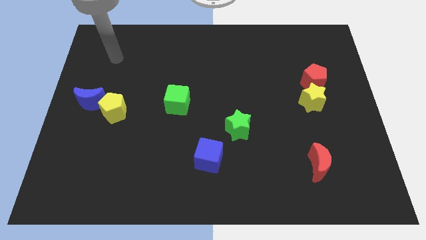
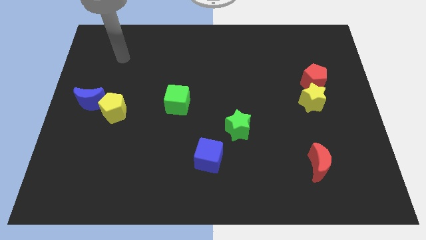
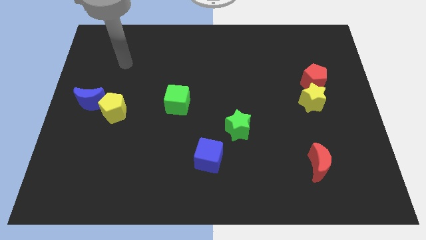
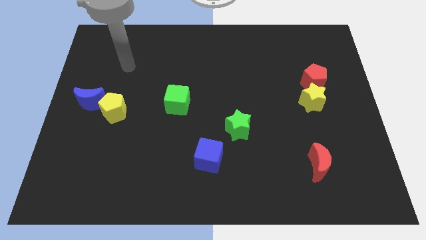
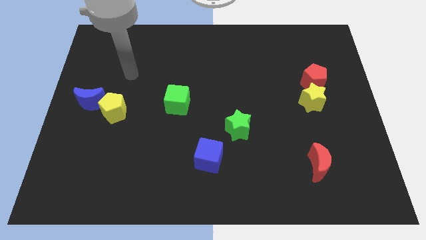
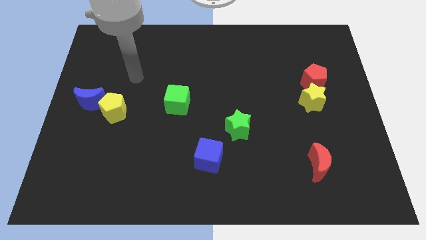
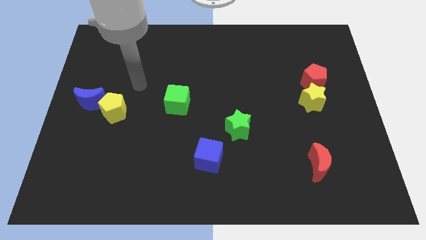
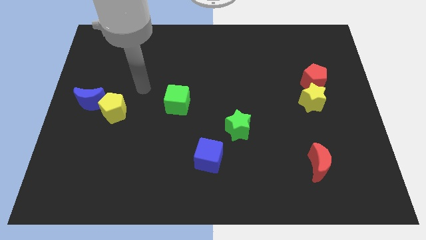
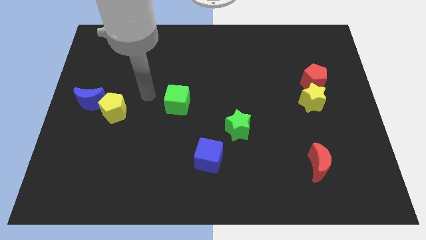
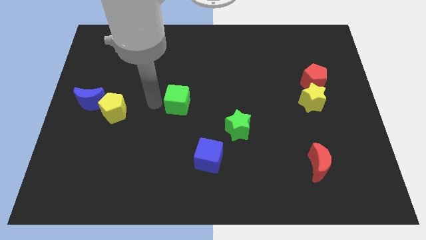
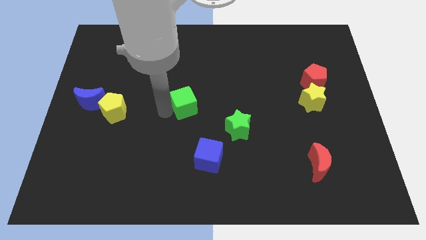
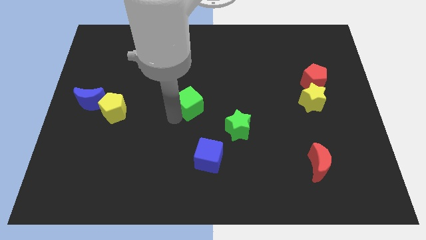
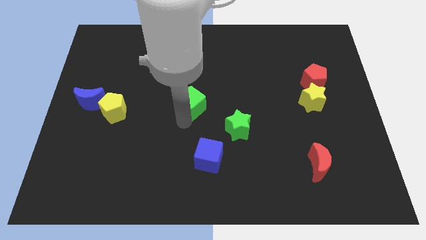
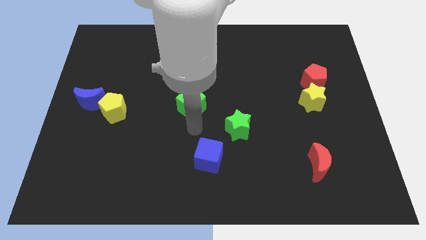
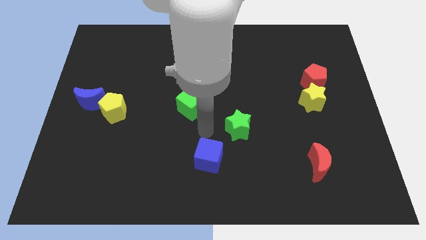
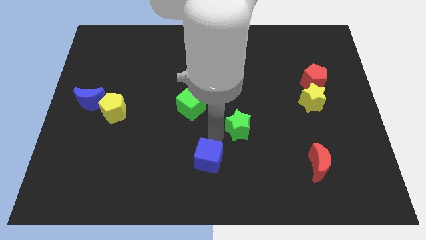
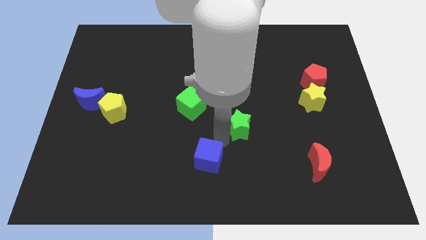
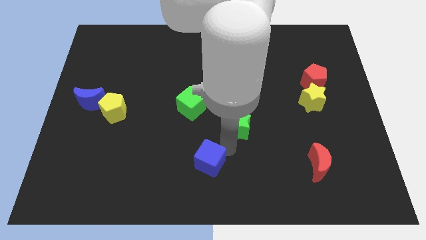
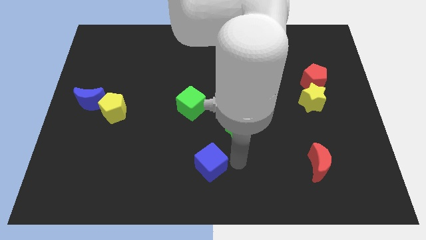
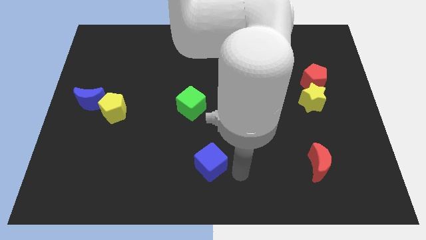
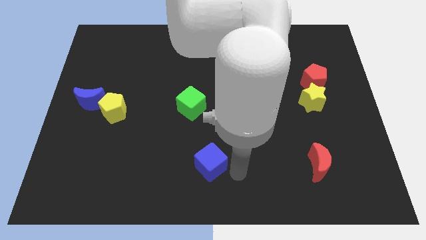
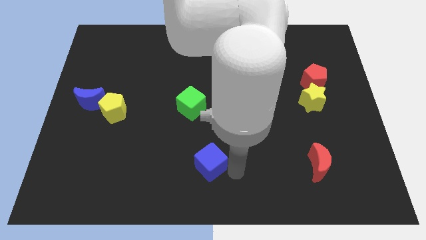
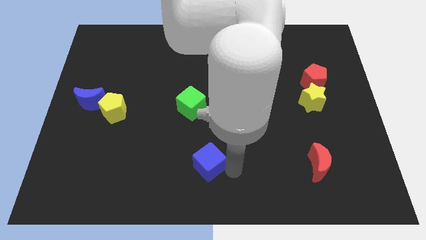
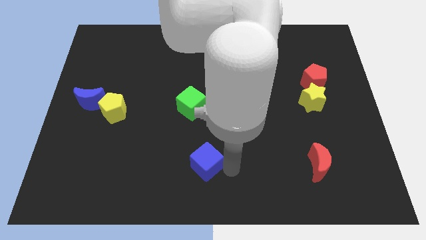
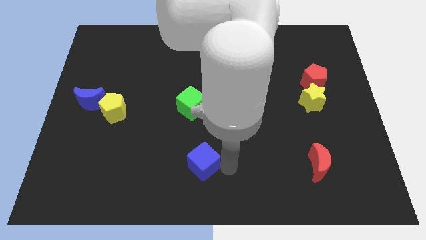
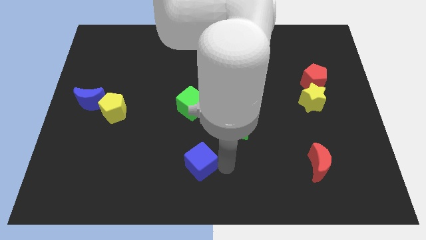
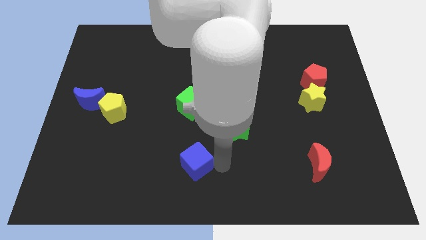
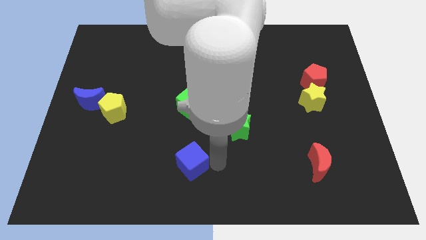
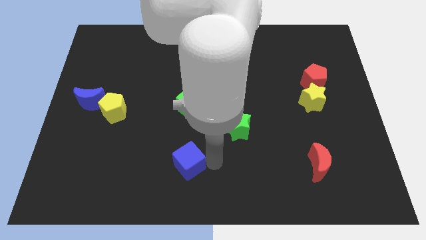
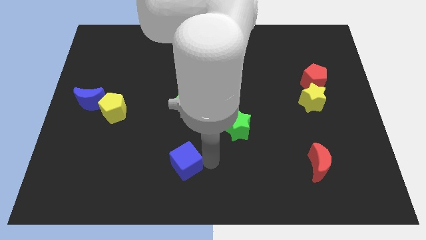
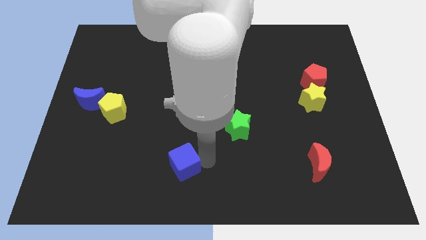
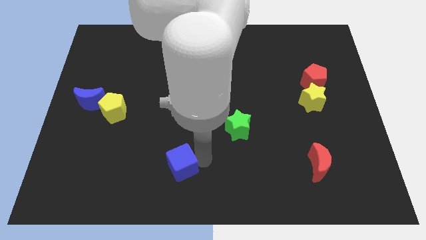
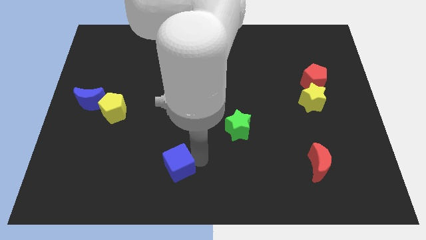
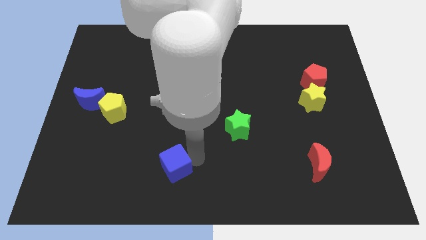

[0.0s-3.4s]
slide the blue cube a little to the left

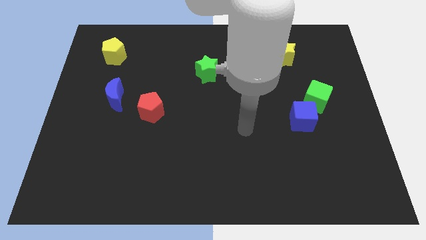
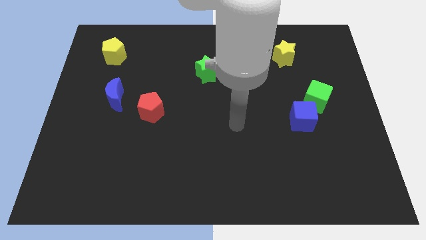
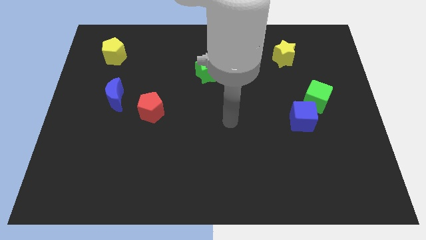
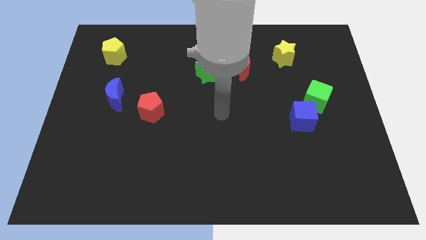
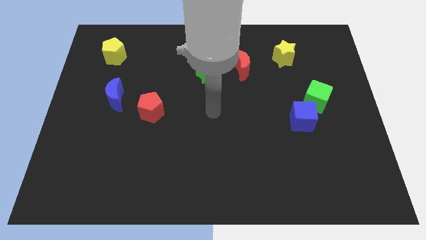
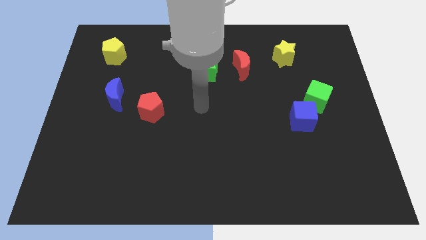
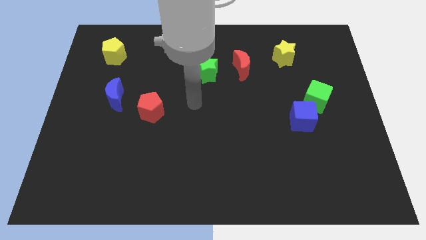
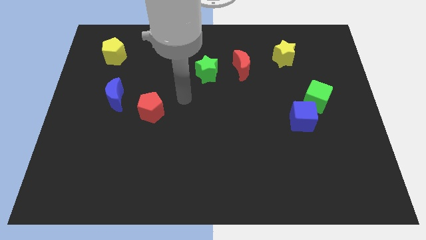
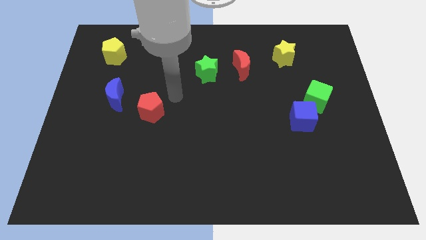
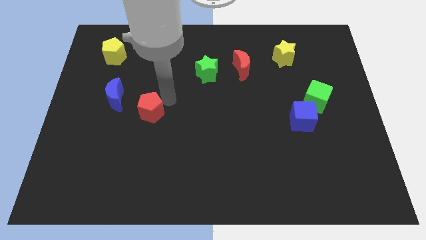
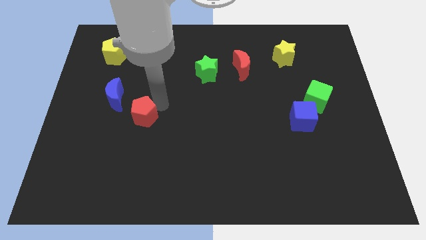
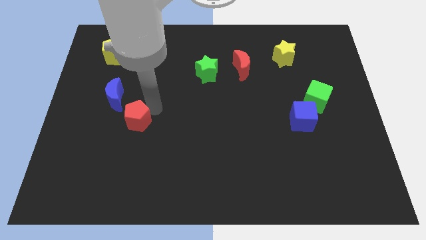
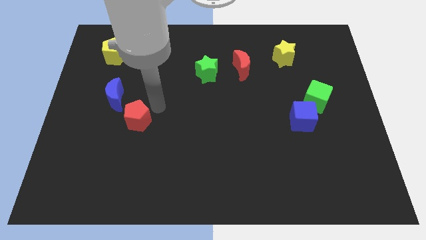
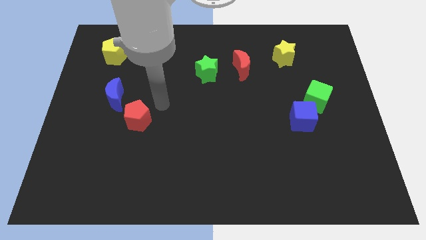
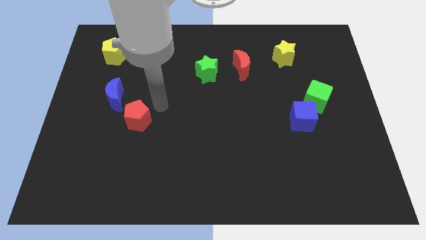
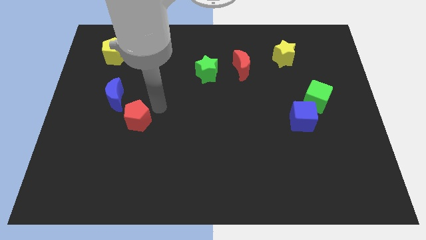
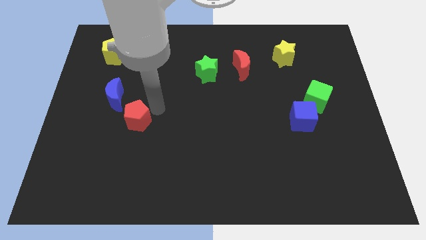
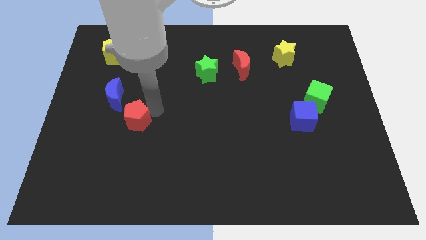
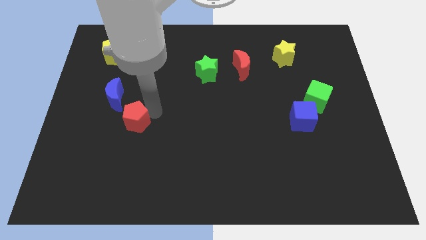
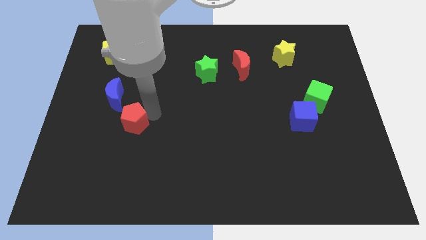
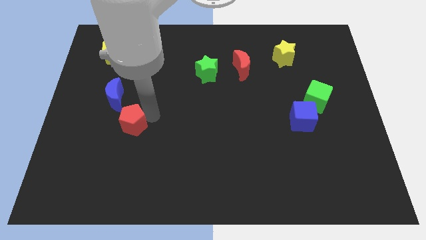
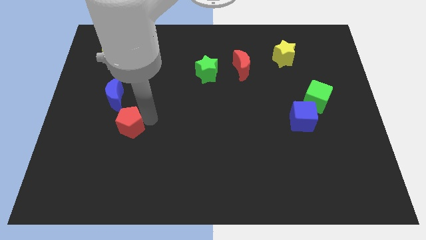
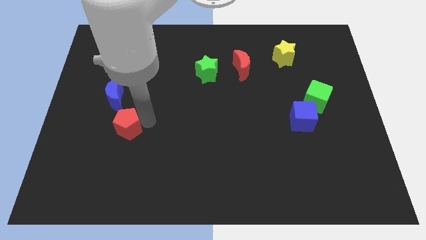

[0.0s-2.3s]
move the red pentagon slightly down and then to the left

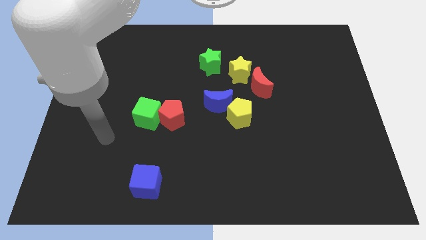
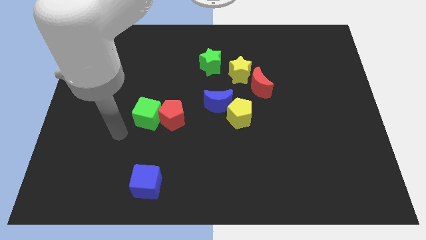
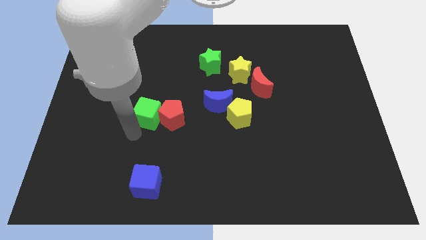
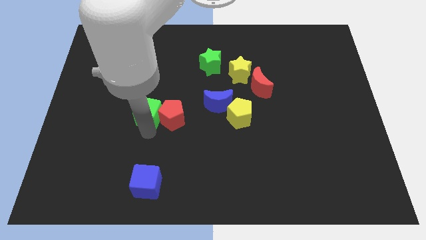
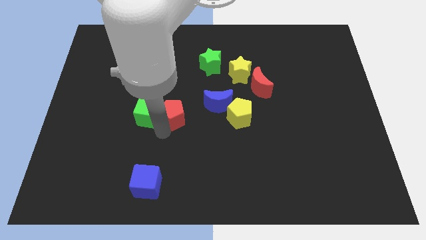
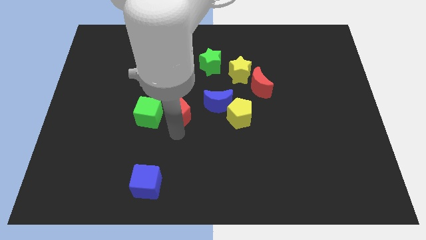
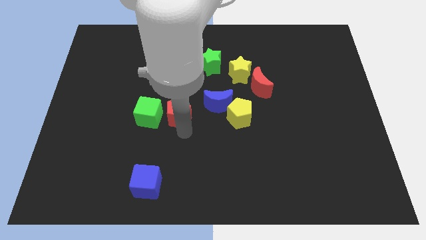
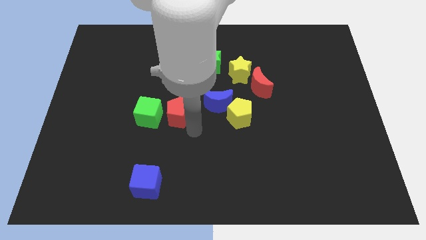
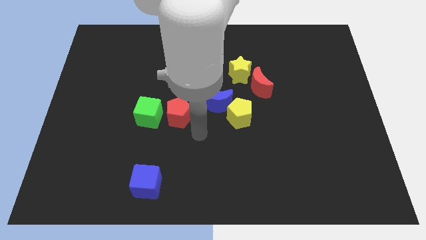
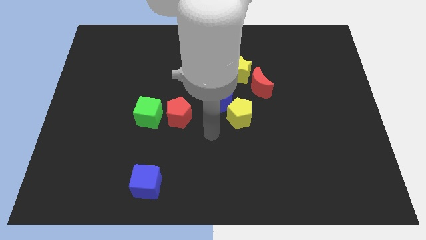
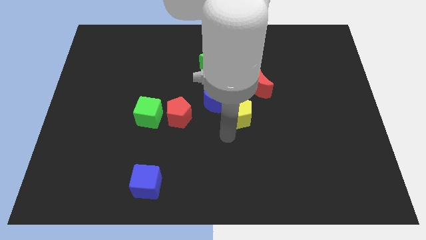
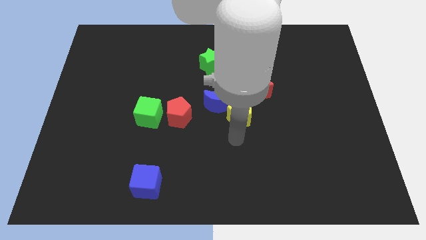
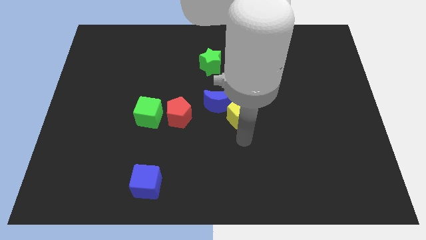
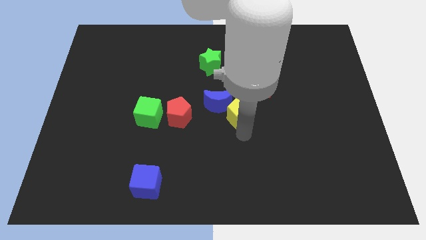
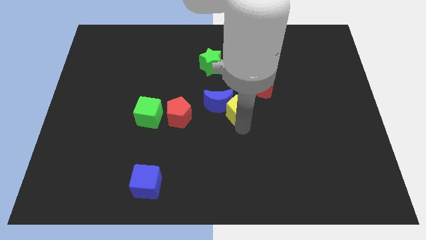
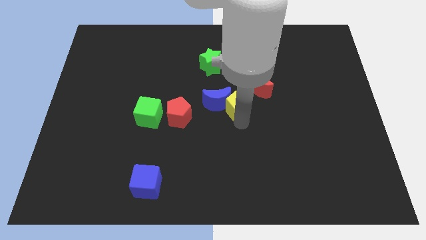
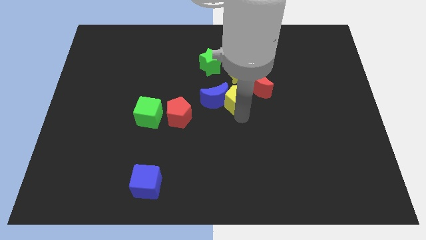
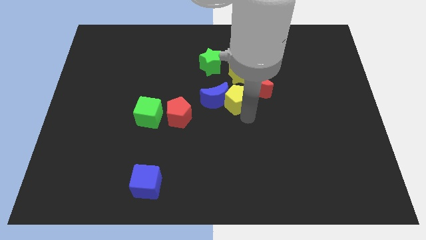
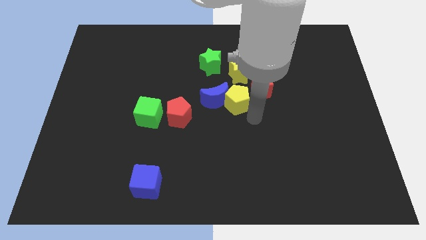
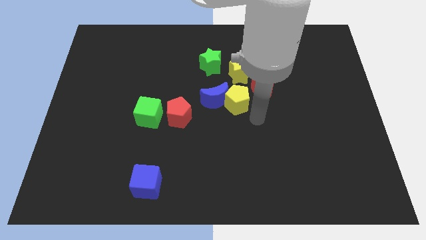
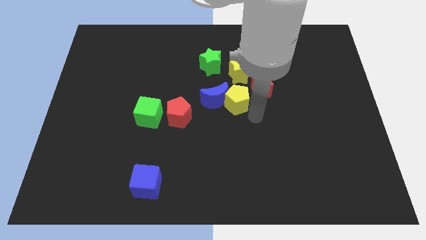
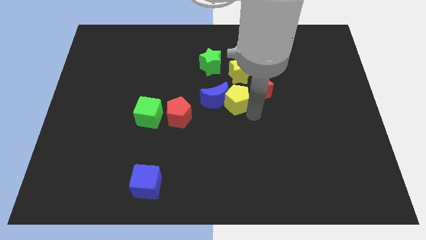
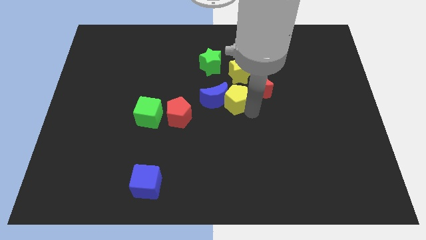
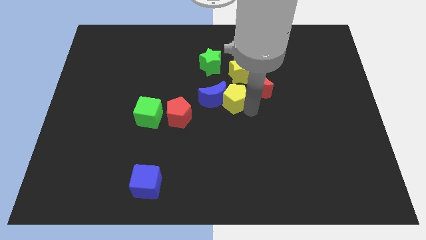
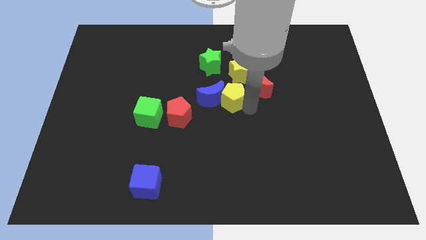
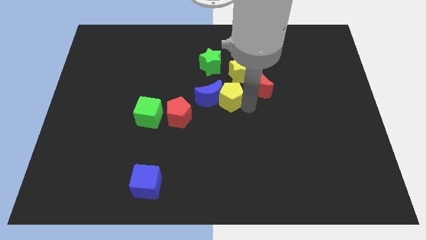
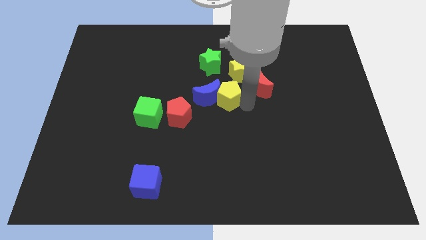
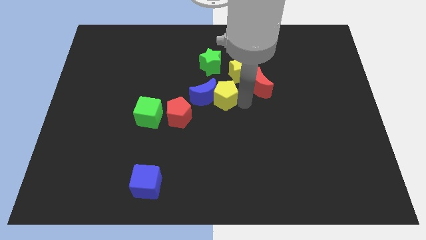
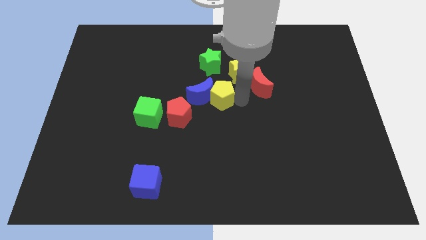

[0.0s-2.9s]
push the yellow pentagon upwards and left somewhat
